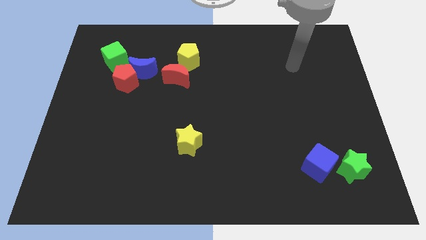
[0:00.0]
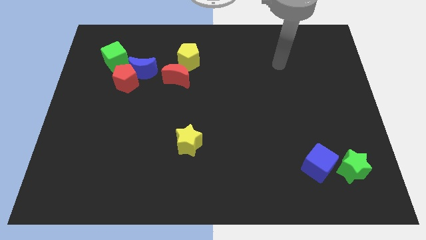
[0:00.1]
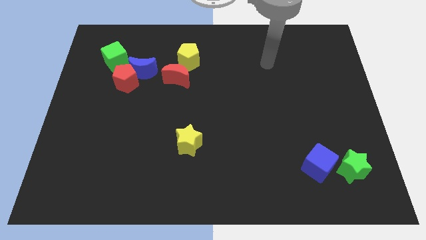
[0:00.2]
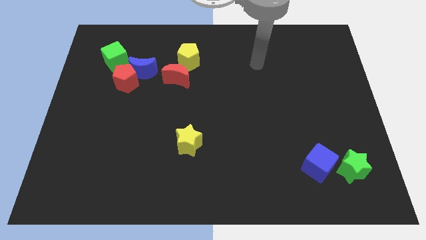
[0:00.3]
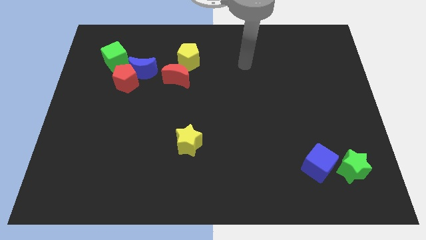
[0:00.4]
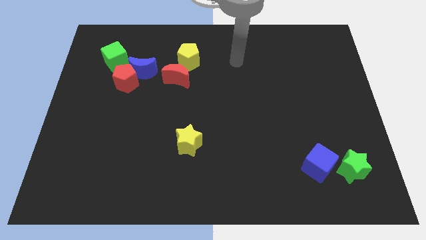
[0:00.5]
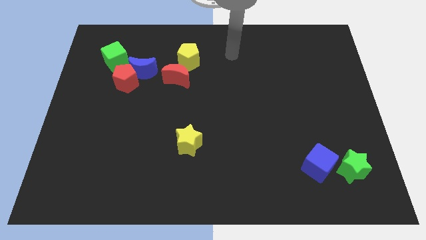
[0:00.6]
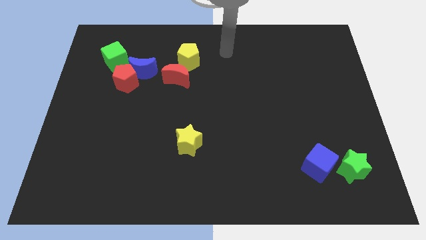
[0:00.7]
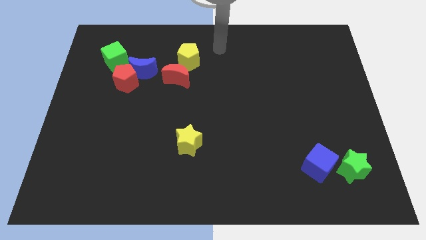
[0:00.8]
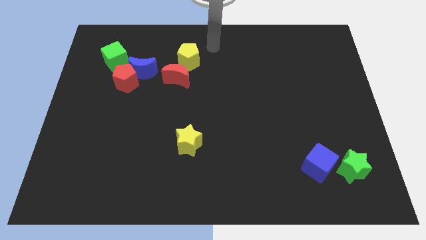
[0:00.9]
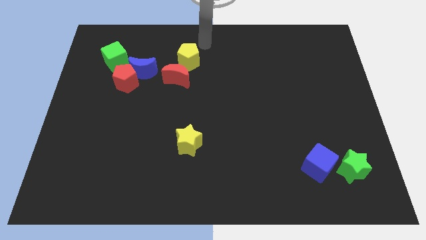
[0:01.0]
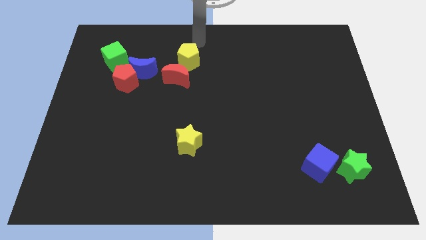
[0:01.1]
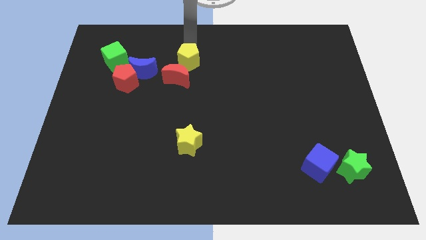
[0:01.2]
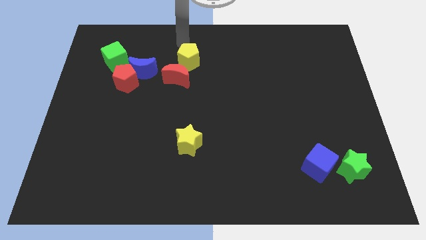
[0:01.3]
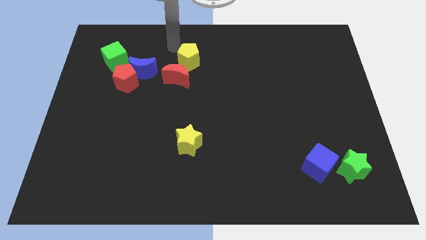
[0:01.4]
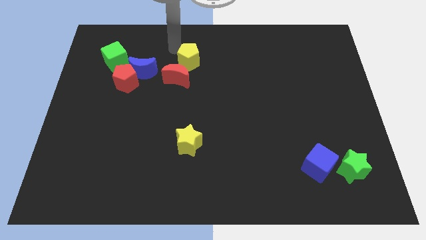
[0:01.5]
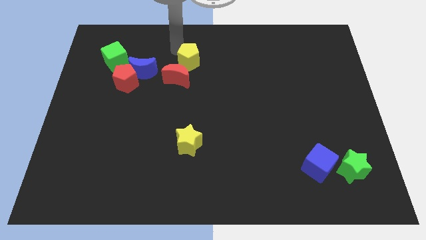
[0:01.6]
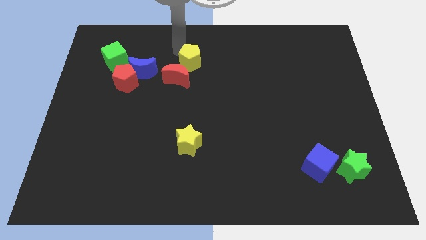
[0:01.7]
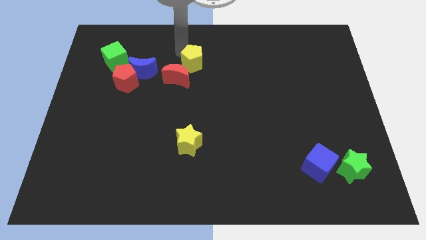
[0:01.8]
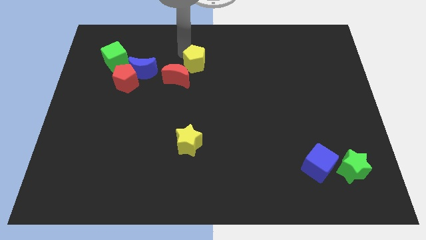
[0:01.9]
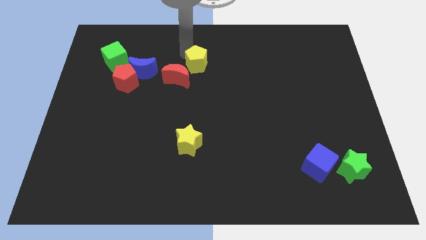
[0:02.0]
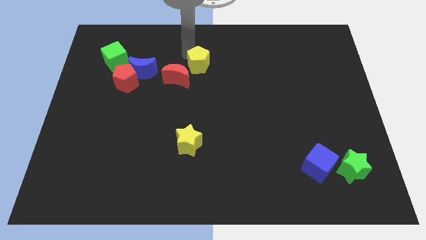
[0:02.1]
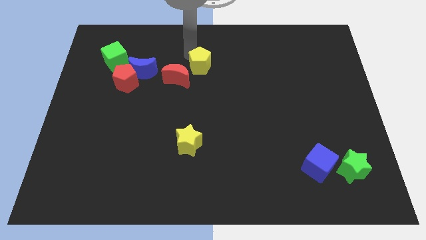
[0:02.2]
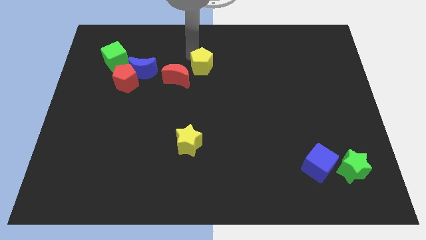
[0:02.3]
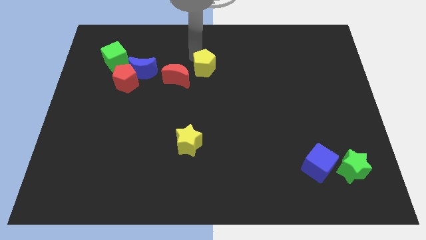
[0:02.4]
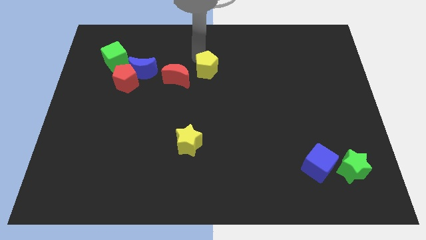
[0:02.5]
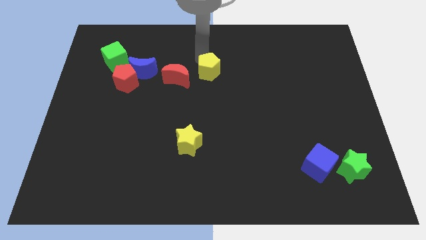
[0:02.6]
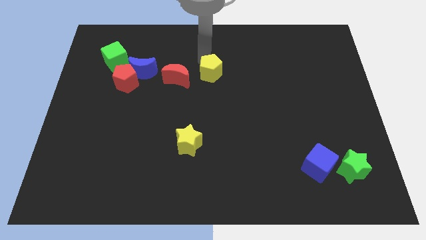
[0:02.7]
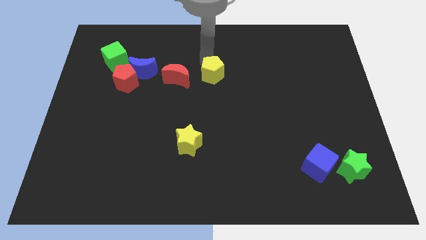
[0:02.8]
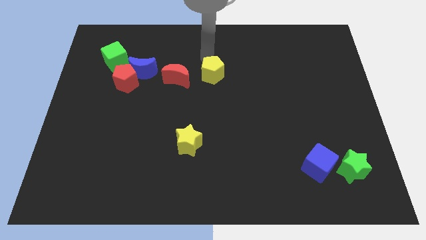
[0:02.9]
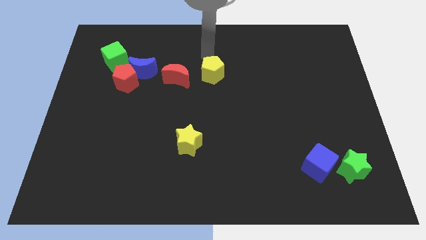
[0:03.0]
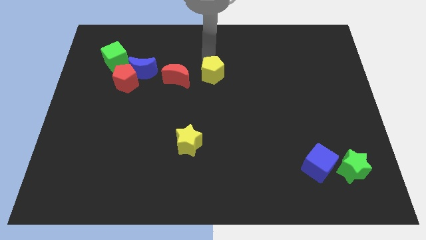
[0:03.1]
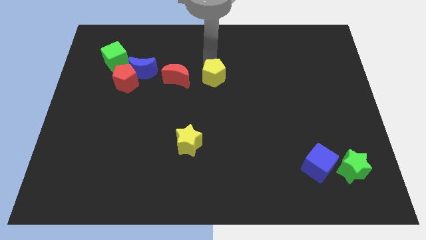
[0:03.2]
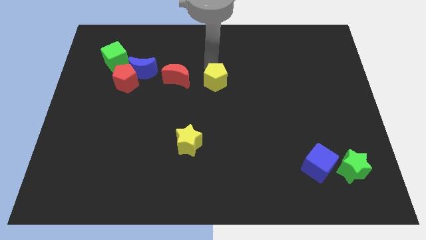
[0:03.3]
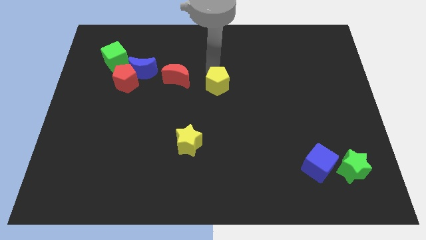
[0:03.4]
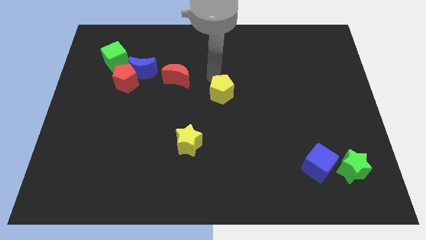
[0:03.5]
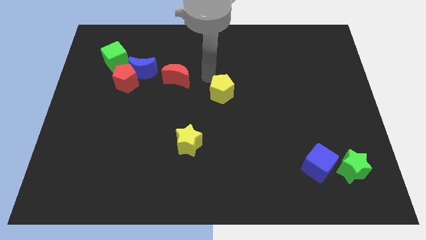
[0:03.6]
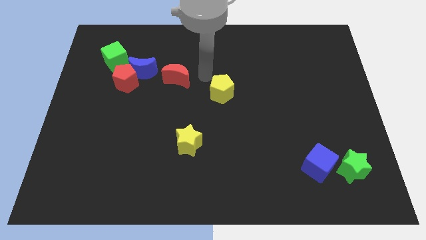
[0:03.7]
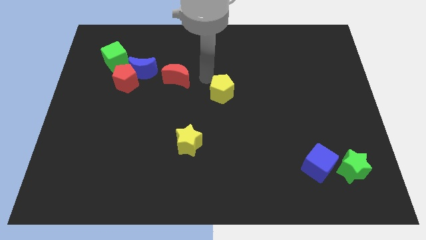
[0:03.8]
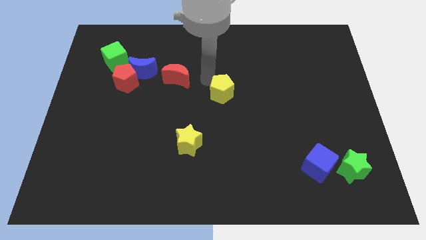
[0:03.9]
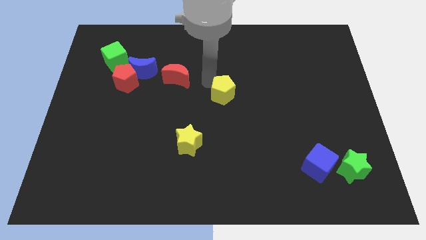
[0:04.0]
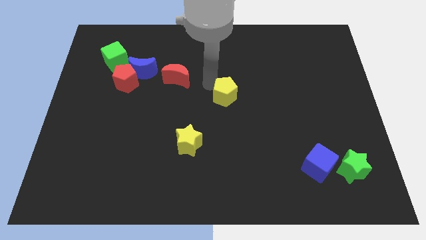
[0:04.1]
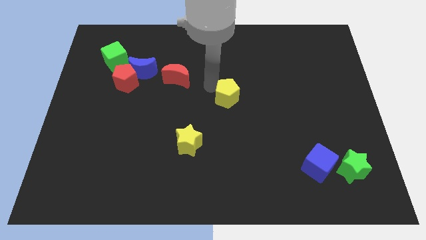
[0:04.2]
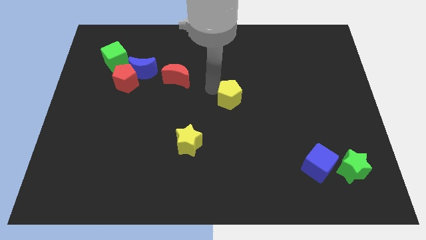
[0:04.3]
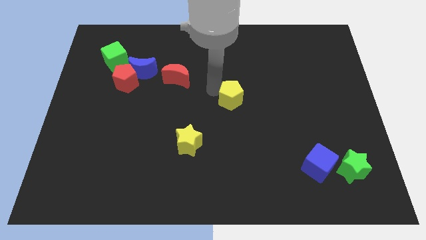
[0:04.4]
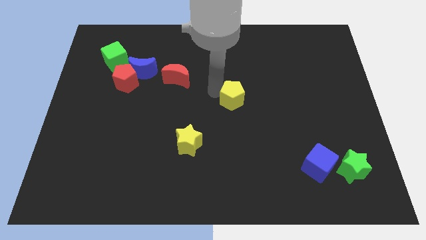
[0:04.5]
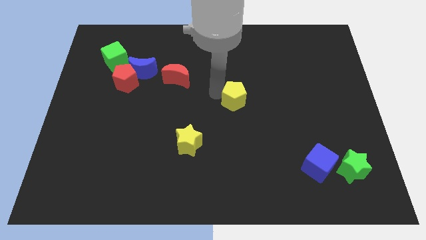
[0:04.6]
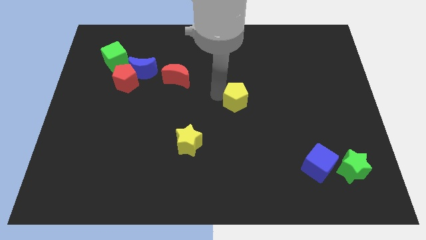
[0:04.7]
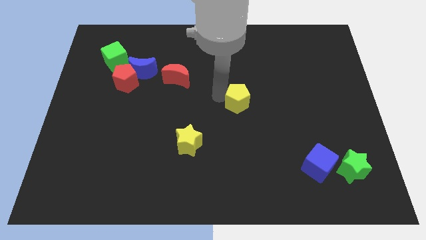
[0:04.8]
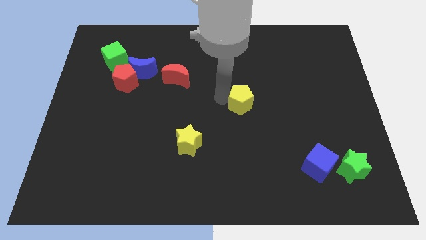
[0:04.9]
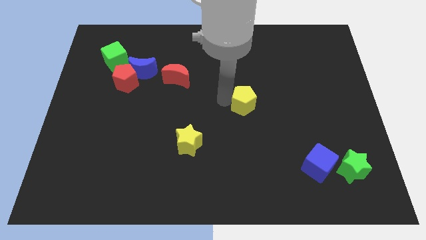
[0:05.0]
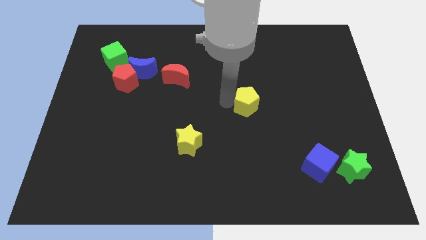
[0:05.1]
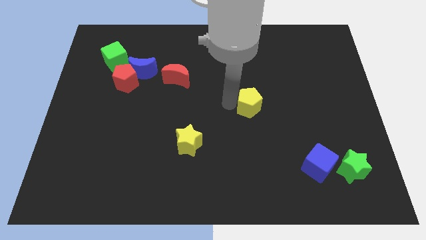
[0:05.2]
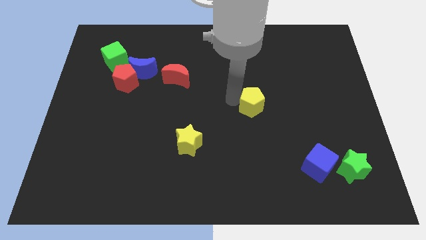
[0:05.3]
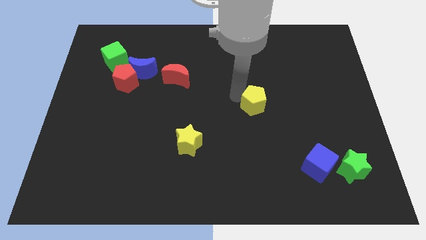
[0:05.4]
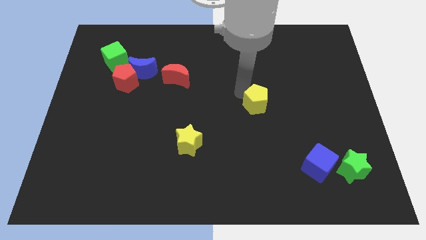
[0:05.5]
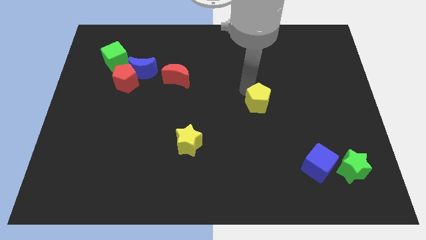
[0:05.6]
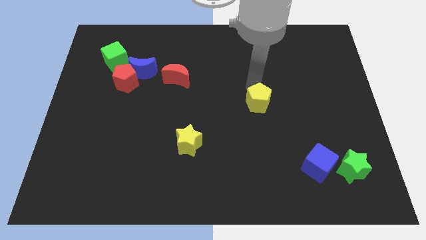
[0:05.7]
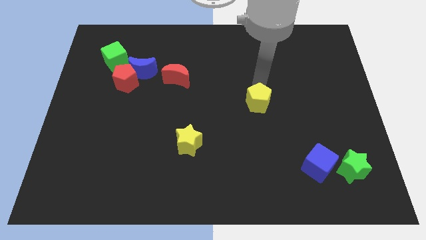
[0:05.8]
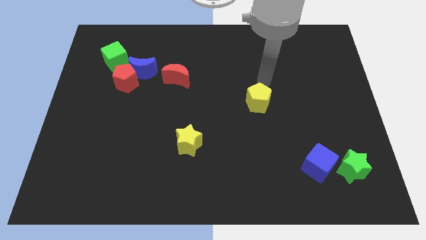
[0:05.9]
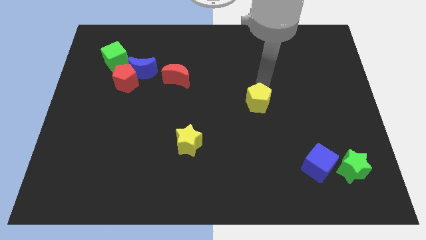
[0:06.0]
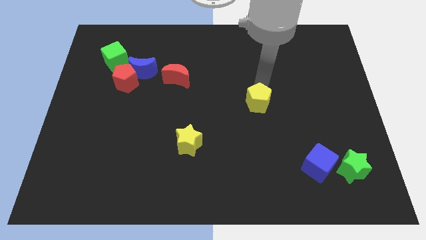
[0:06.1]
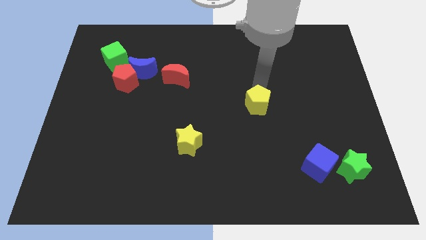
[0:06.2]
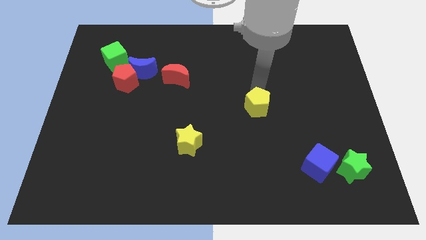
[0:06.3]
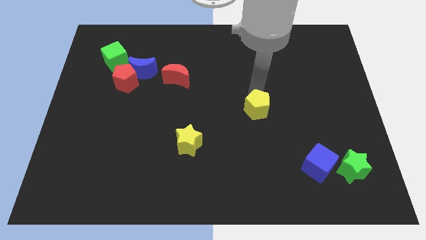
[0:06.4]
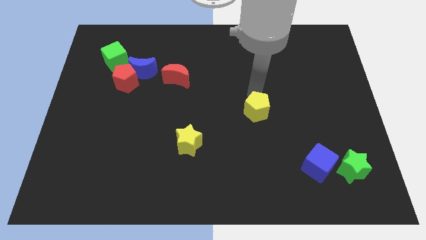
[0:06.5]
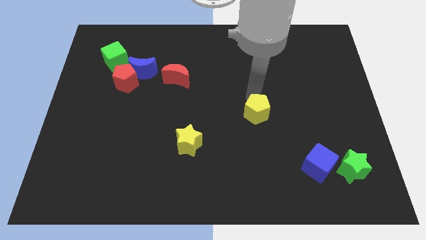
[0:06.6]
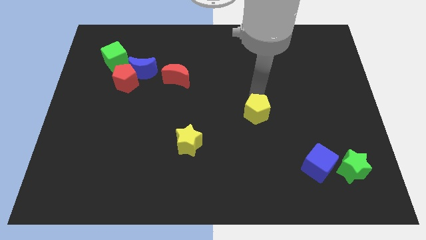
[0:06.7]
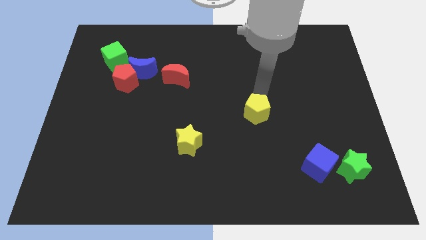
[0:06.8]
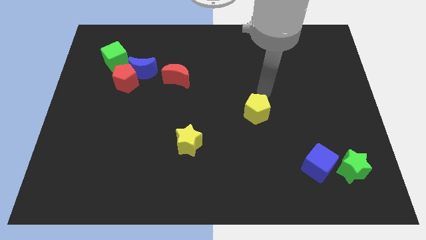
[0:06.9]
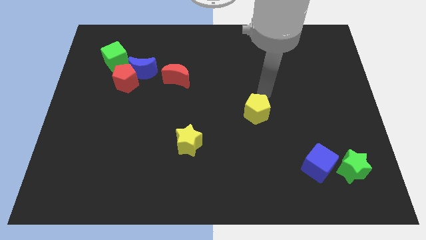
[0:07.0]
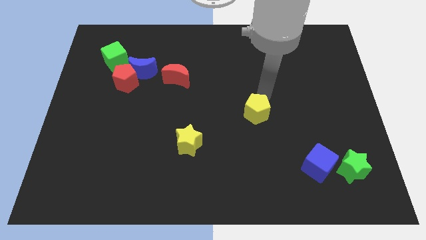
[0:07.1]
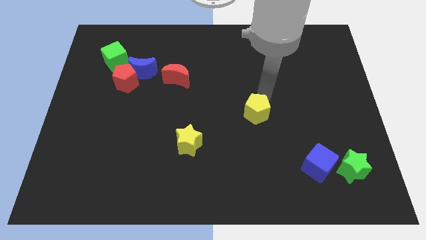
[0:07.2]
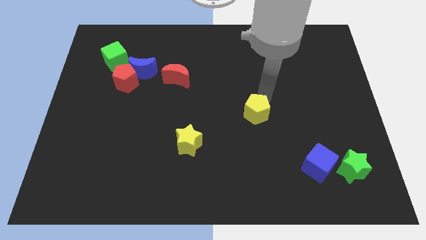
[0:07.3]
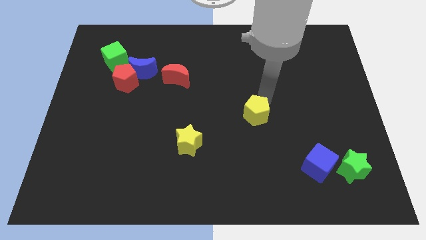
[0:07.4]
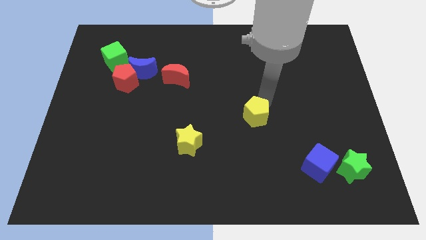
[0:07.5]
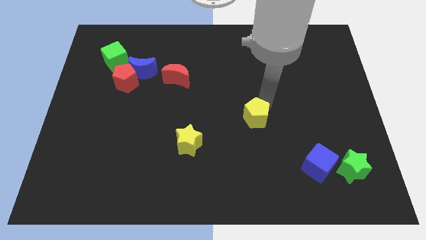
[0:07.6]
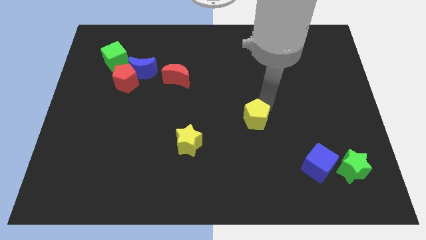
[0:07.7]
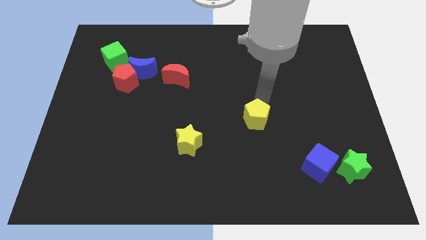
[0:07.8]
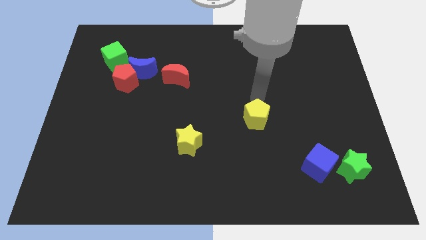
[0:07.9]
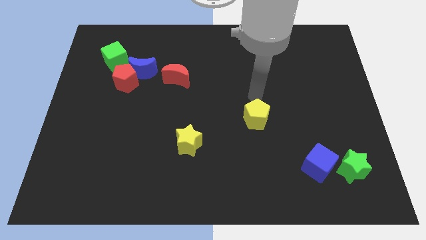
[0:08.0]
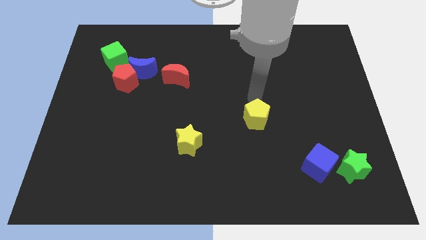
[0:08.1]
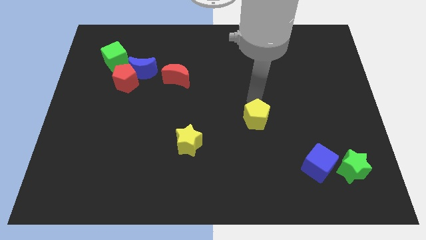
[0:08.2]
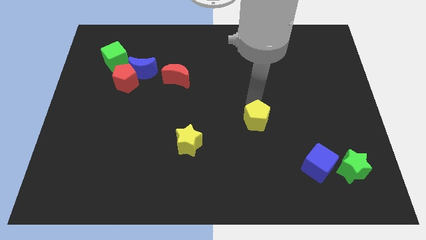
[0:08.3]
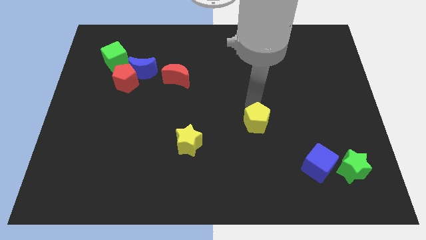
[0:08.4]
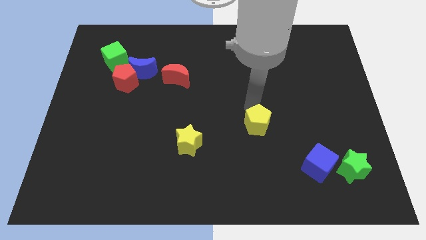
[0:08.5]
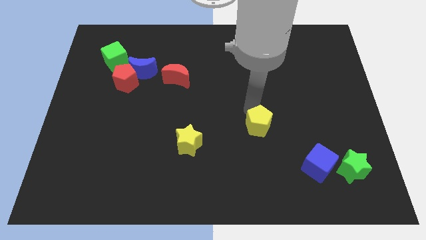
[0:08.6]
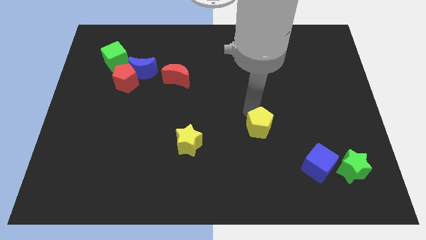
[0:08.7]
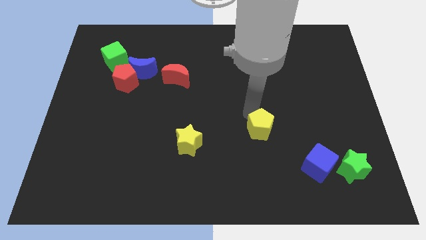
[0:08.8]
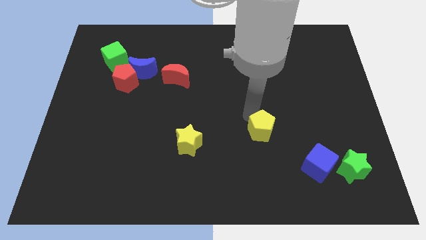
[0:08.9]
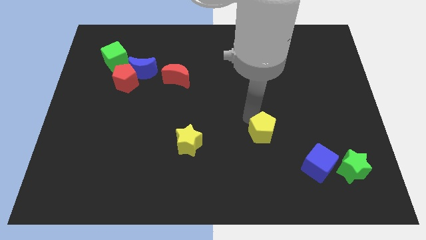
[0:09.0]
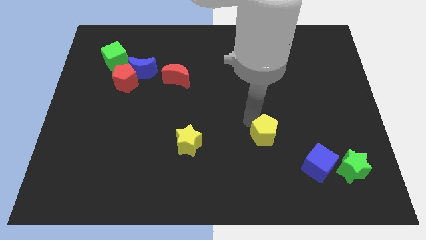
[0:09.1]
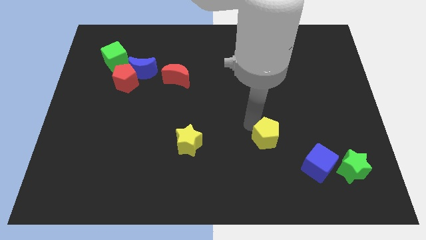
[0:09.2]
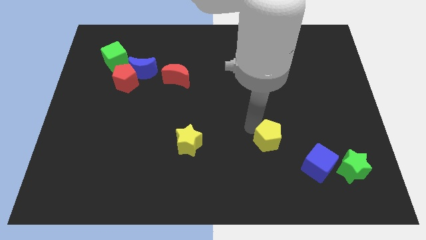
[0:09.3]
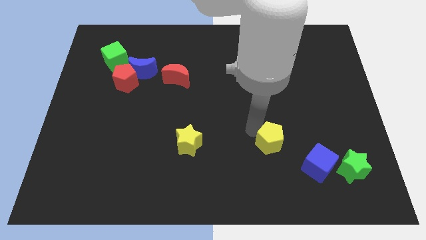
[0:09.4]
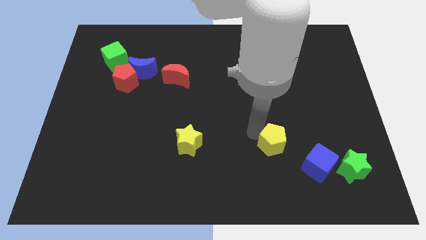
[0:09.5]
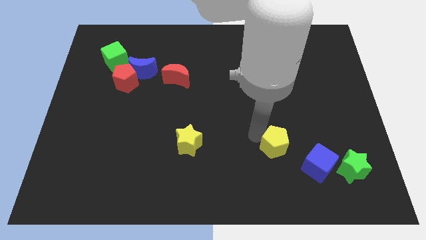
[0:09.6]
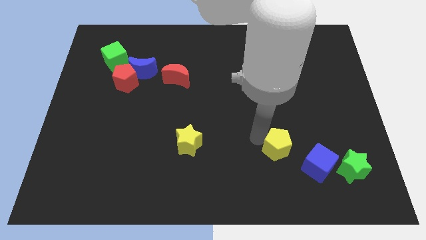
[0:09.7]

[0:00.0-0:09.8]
slide the yellow pentagon left of the blue cube
